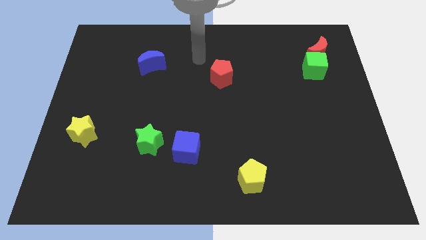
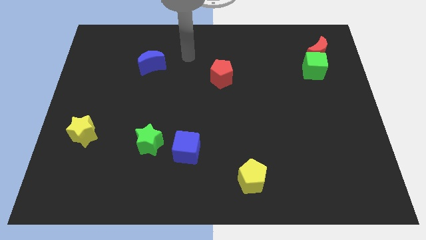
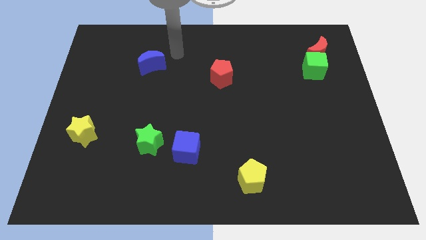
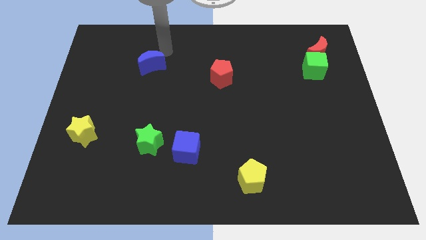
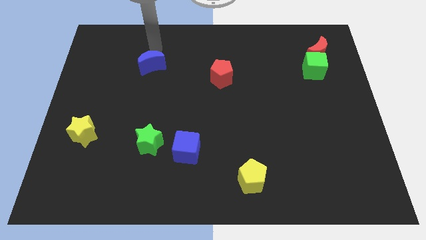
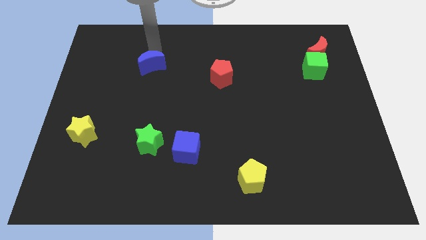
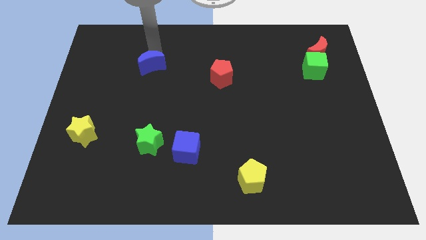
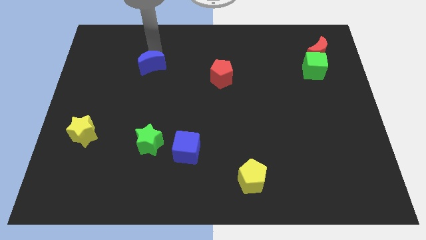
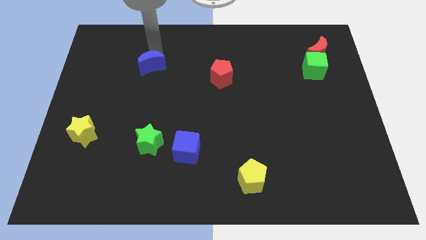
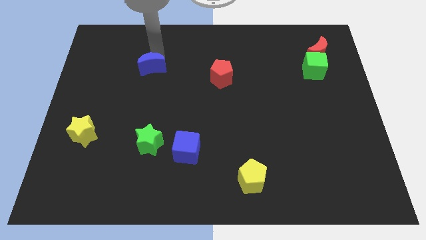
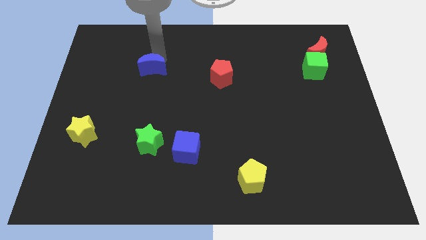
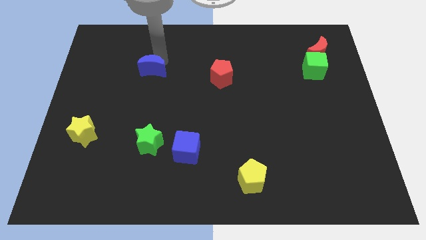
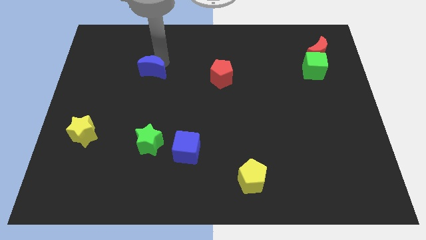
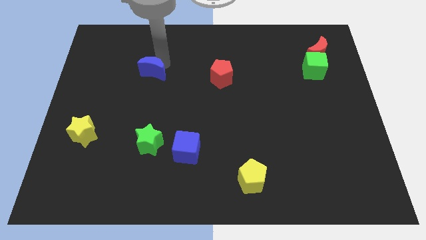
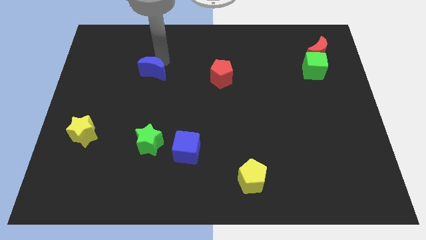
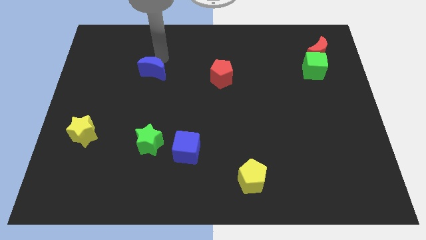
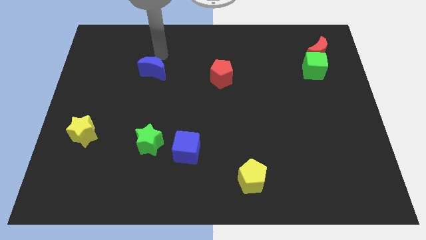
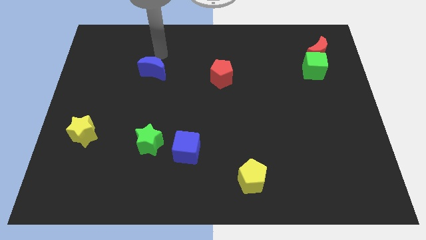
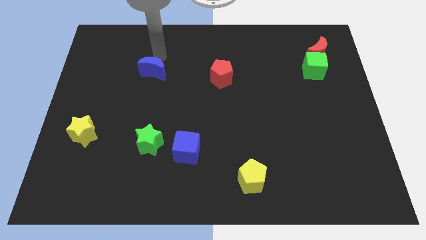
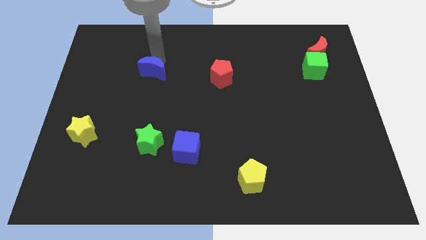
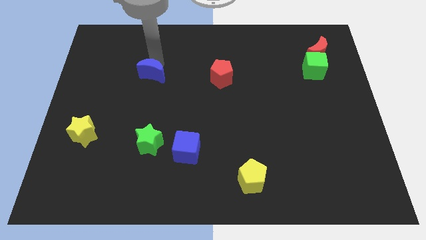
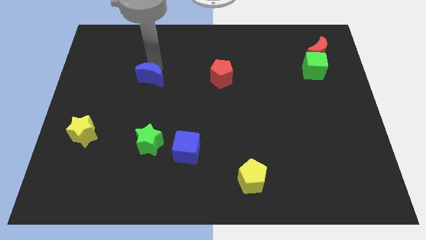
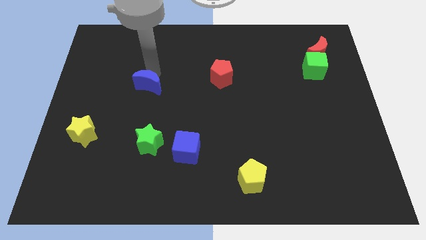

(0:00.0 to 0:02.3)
slightly push the blue moon down

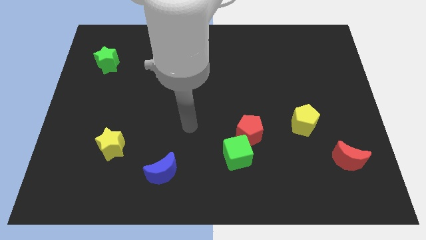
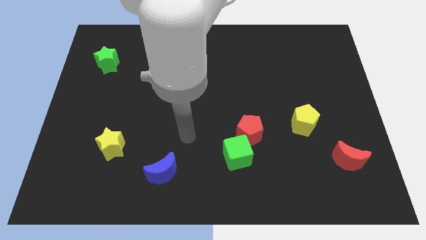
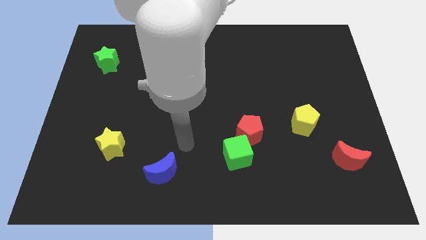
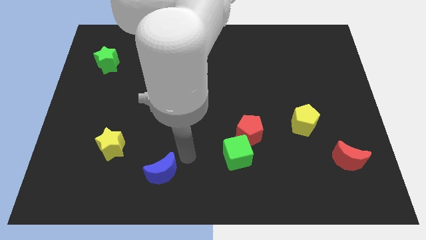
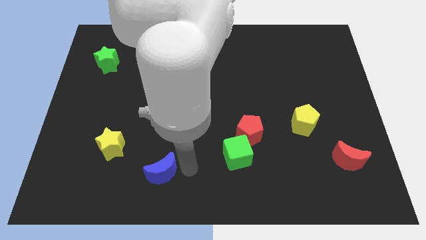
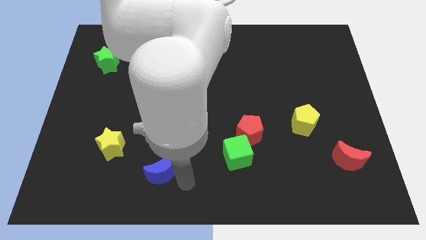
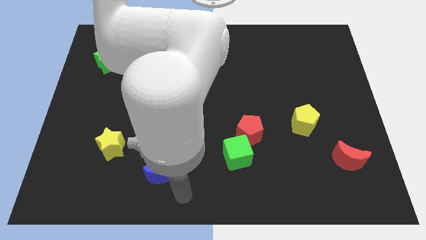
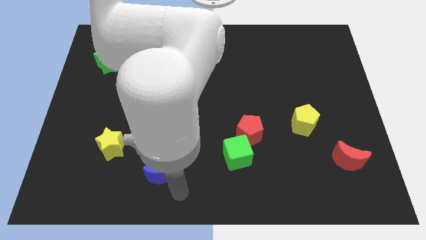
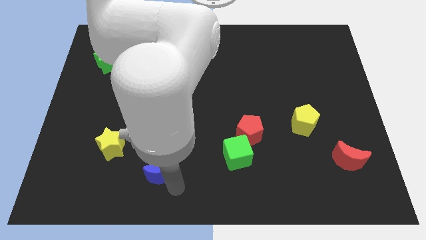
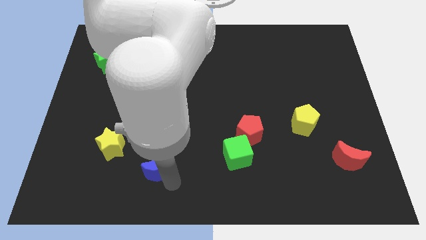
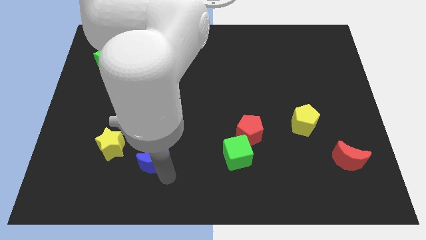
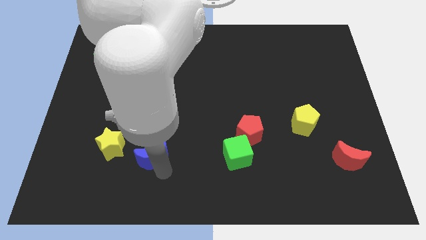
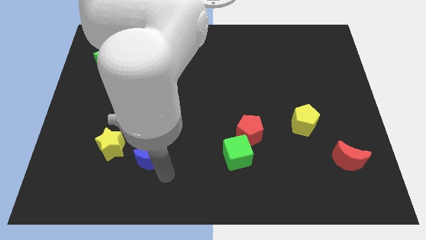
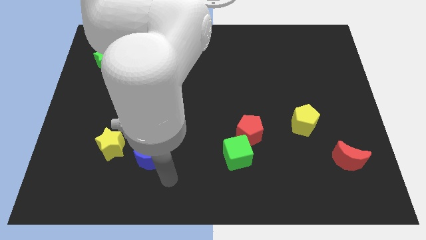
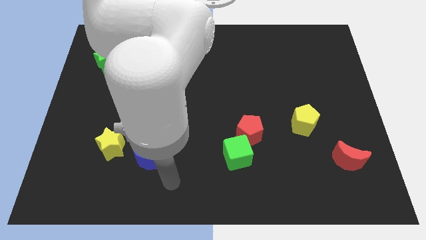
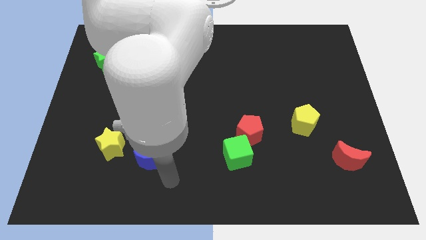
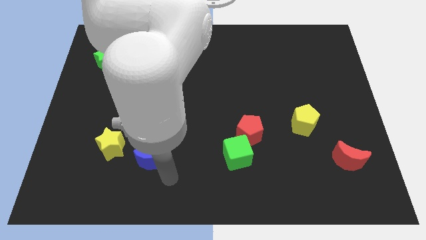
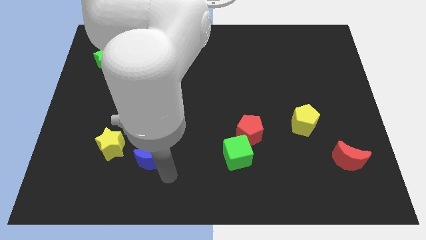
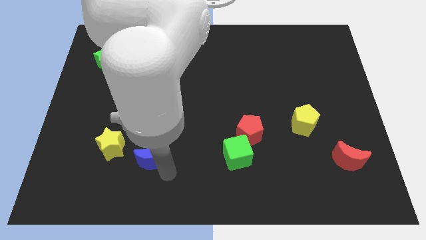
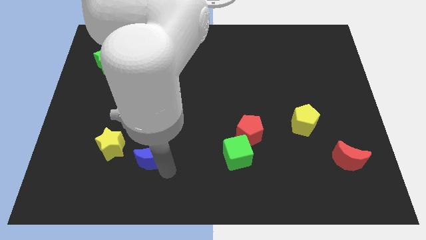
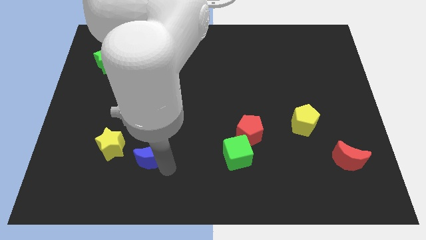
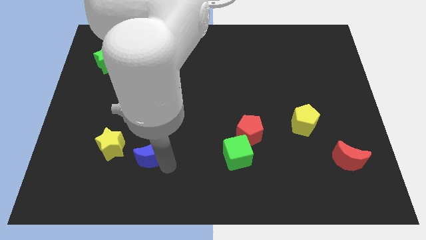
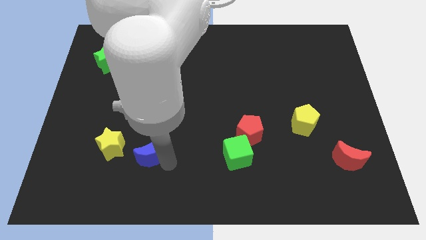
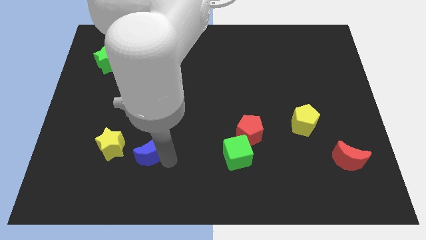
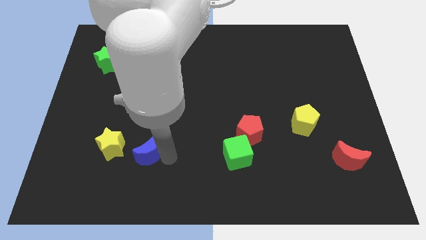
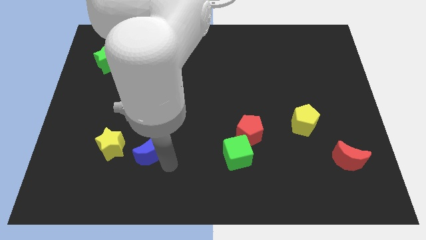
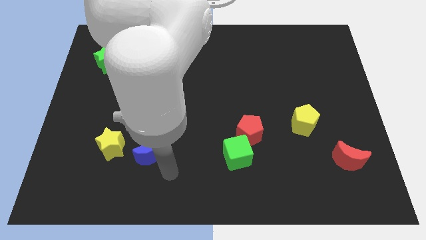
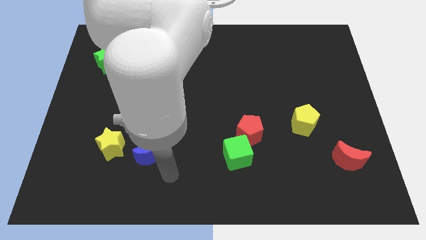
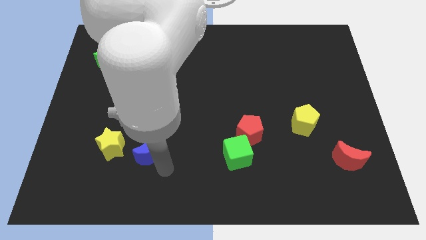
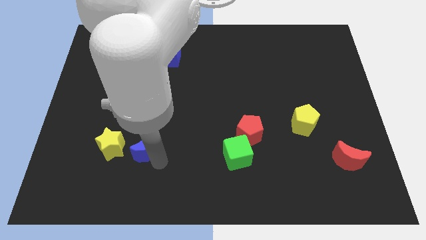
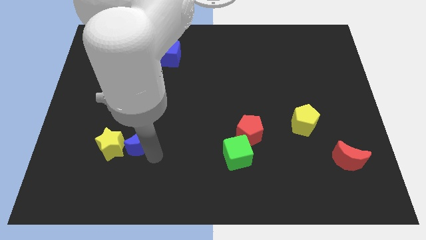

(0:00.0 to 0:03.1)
slide the blue moon upwards and then to the left a little bit

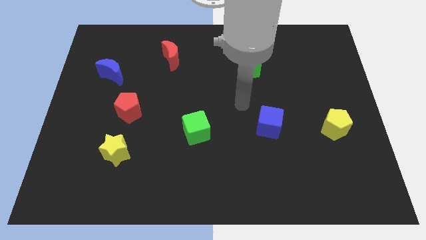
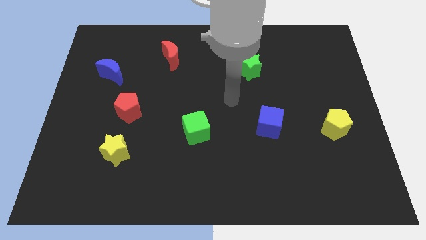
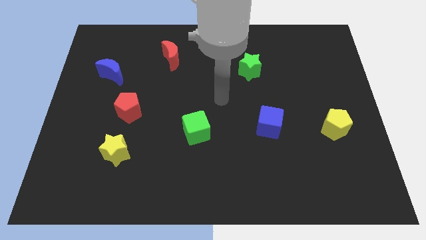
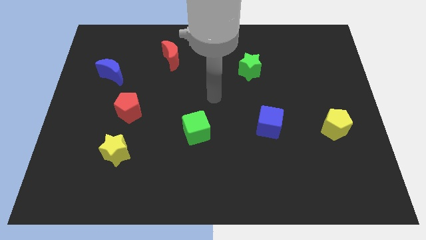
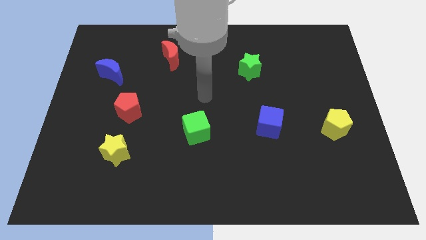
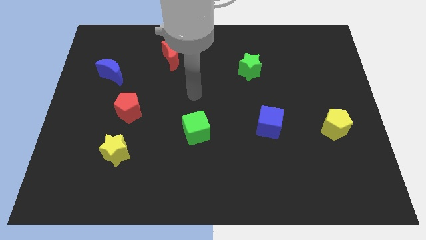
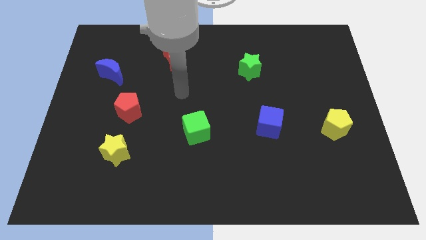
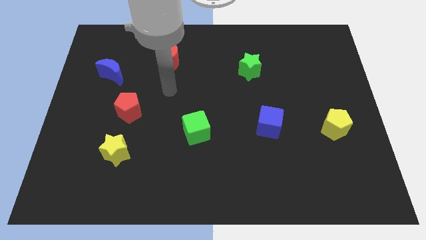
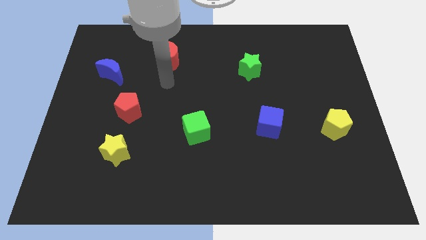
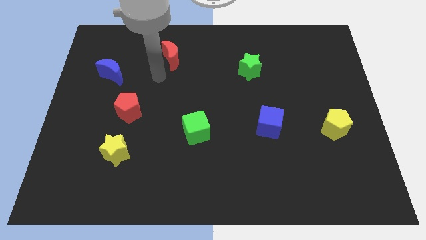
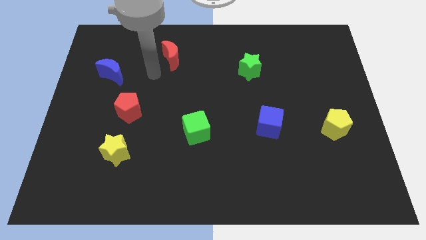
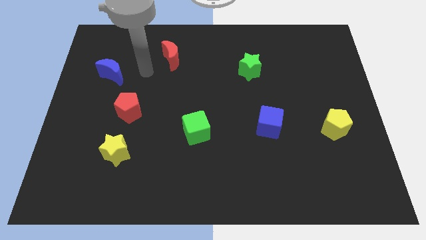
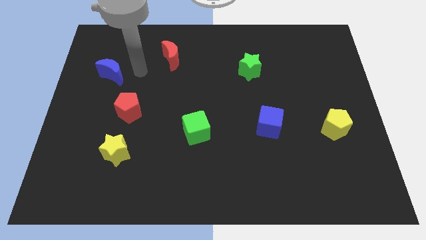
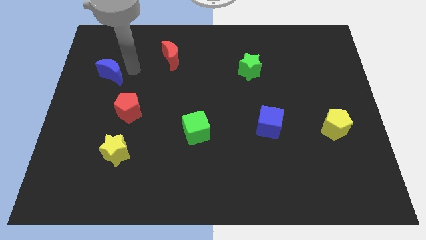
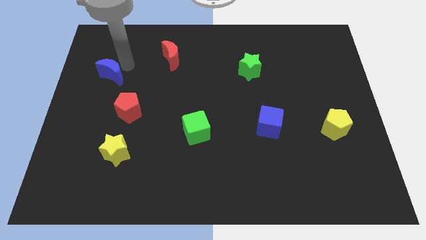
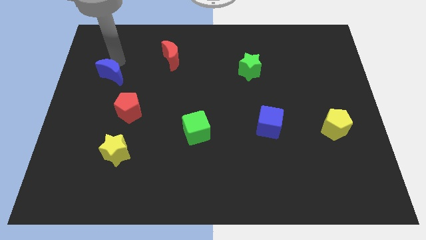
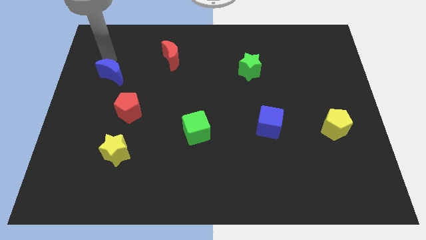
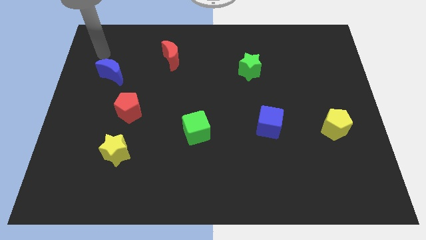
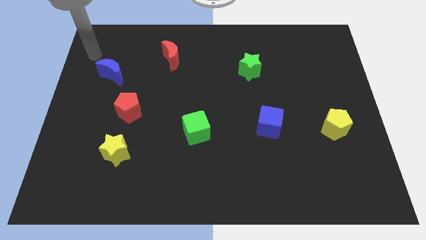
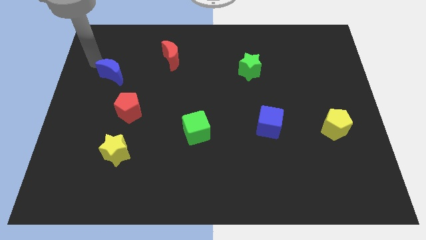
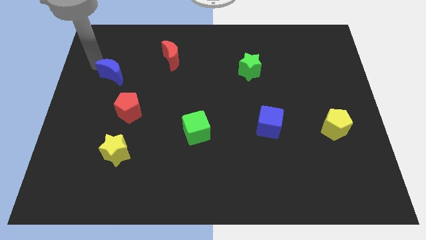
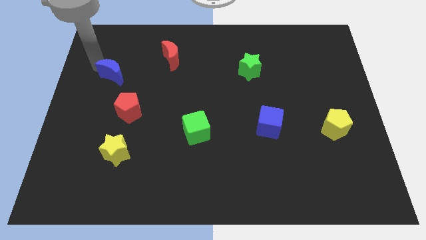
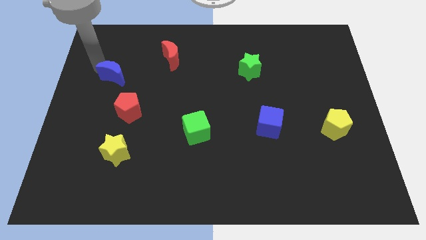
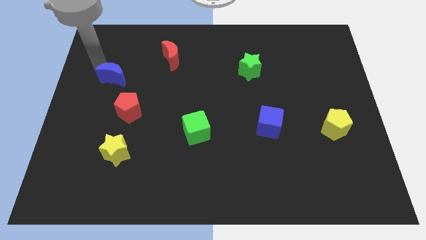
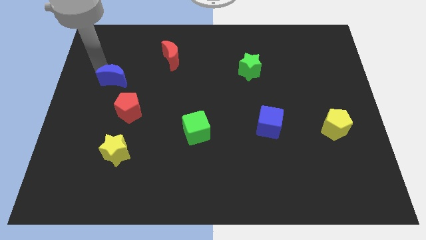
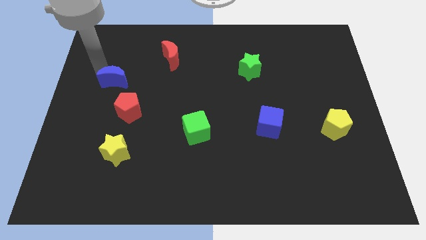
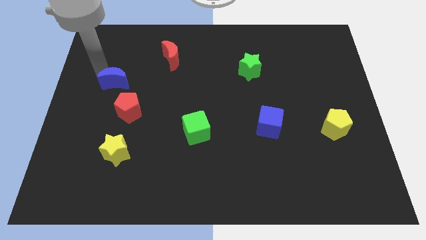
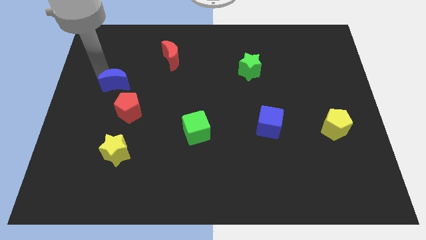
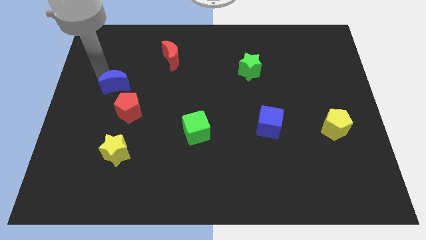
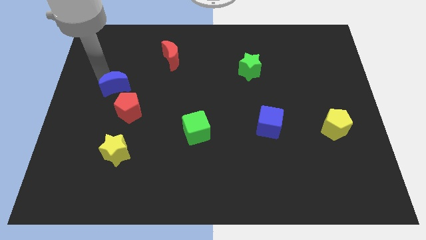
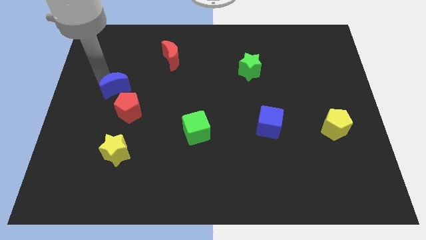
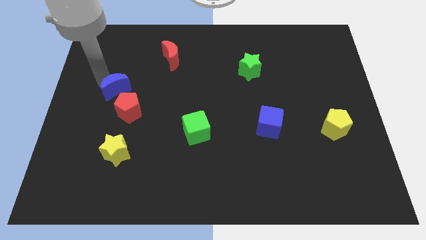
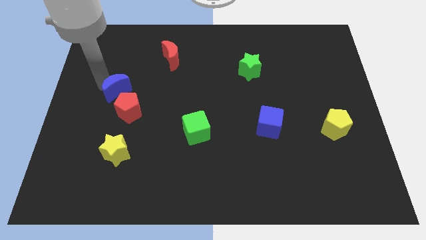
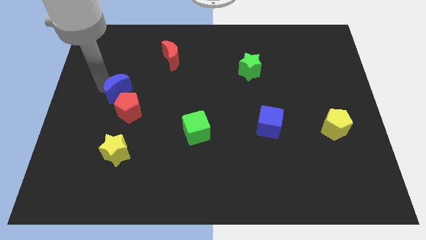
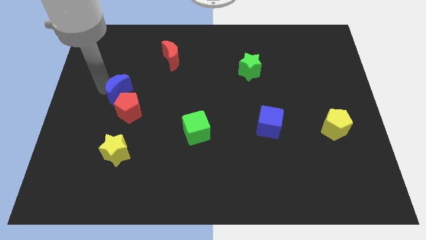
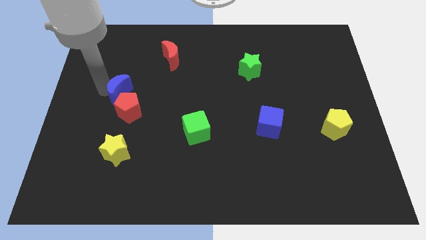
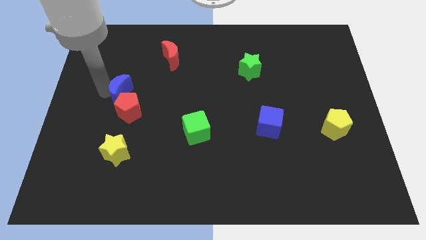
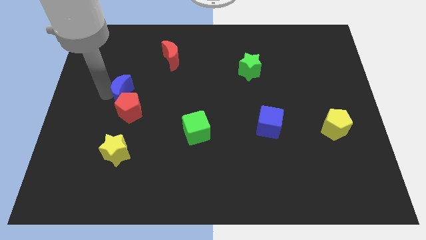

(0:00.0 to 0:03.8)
push the blue moon a bit down and right
